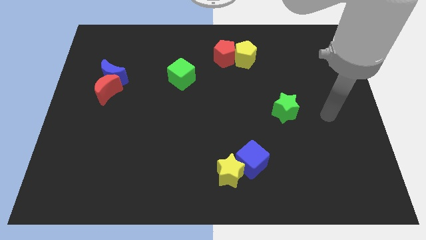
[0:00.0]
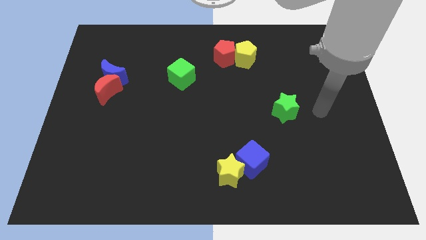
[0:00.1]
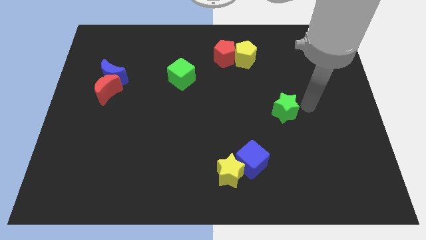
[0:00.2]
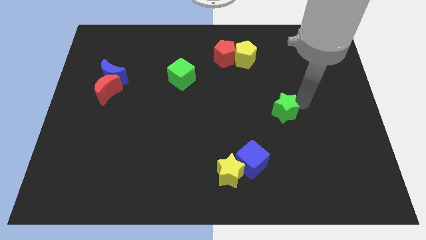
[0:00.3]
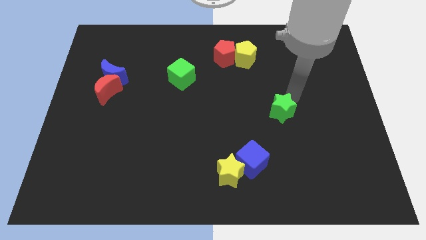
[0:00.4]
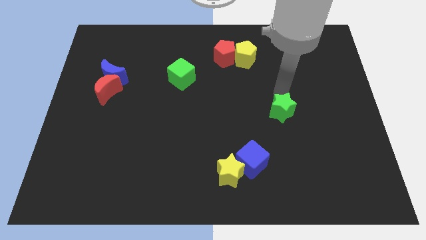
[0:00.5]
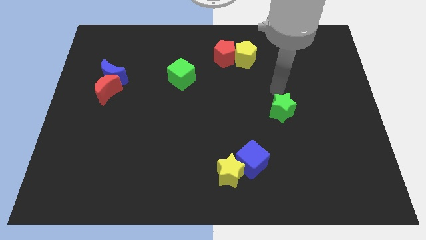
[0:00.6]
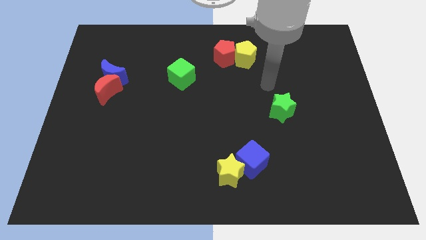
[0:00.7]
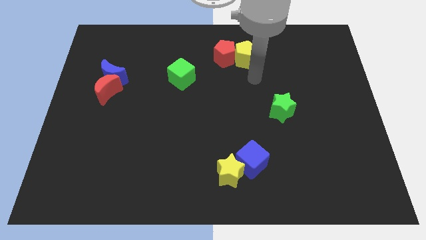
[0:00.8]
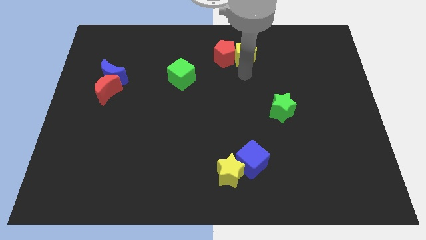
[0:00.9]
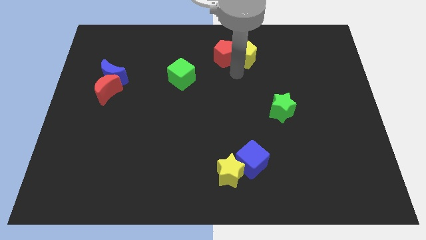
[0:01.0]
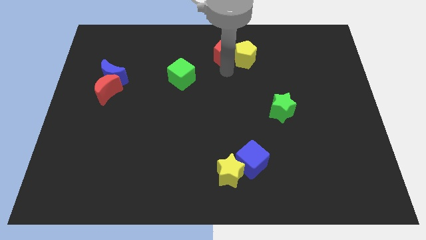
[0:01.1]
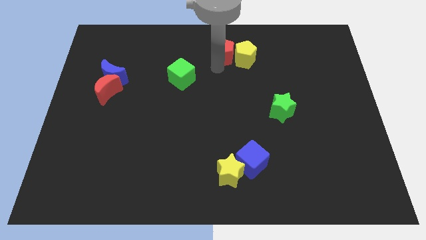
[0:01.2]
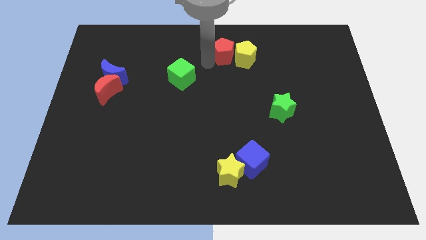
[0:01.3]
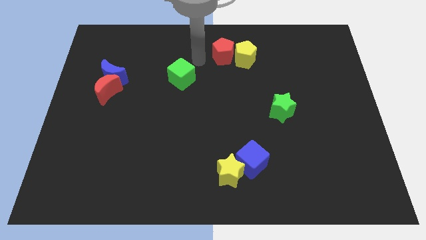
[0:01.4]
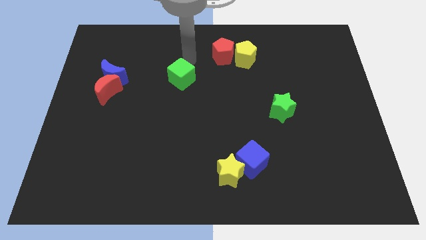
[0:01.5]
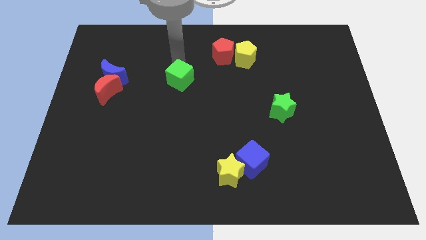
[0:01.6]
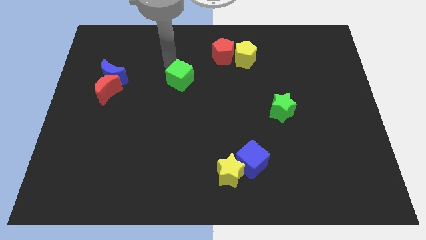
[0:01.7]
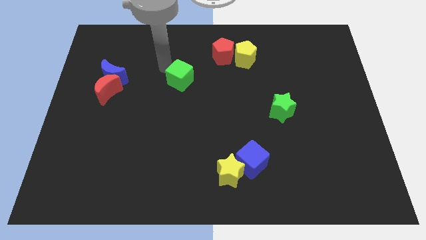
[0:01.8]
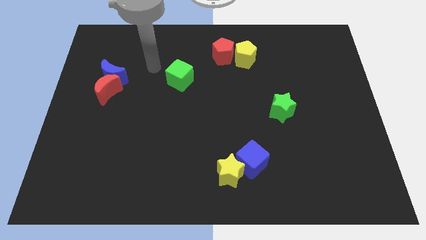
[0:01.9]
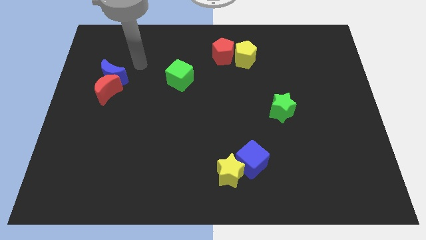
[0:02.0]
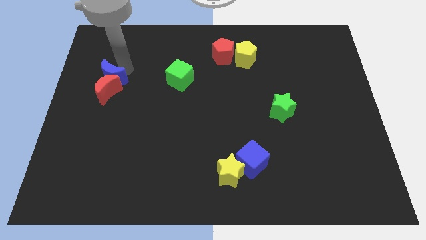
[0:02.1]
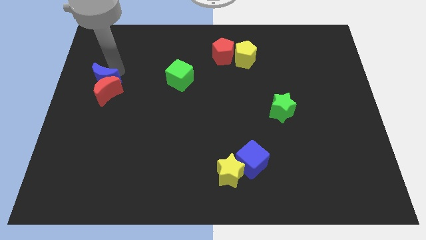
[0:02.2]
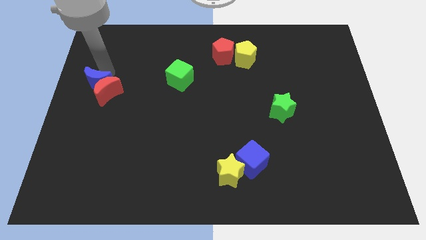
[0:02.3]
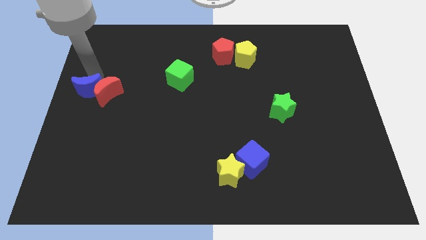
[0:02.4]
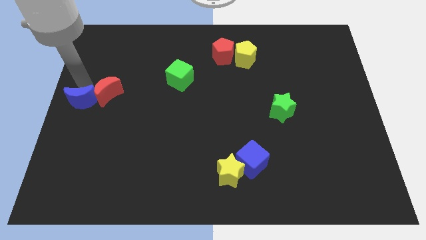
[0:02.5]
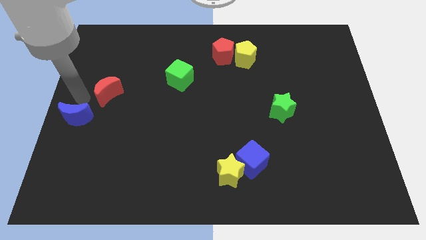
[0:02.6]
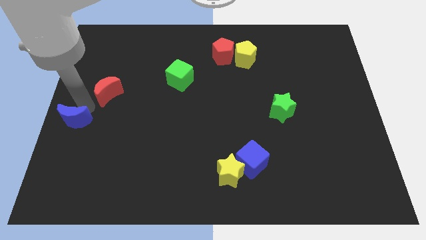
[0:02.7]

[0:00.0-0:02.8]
pull the red moon apart from the blue moon

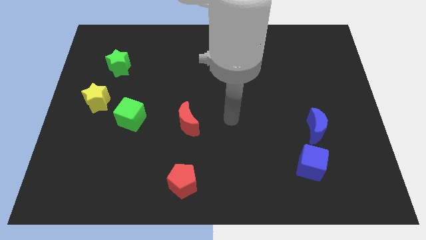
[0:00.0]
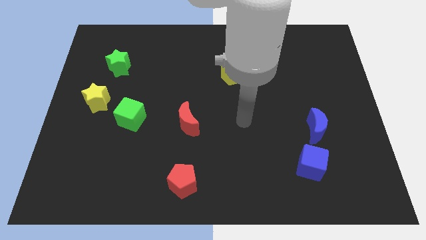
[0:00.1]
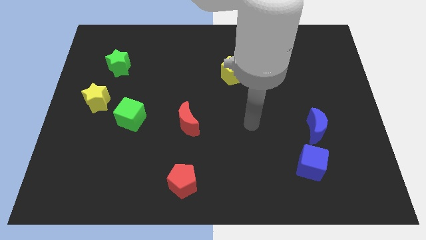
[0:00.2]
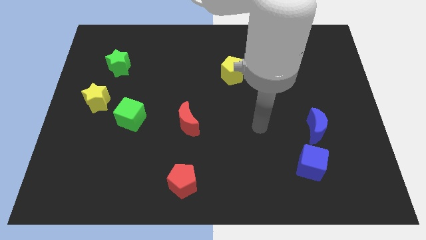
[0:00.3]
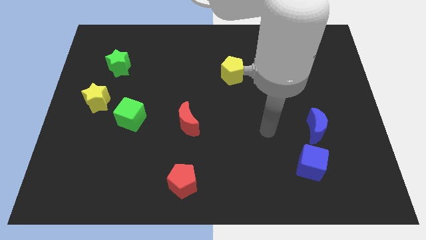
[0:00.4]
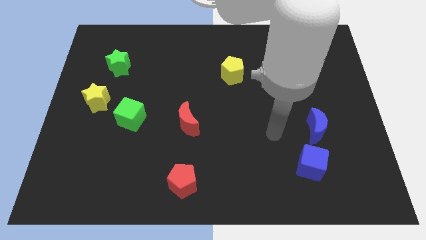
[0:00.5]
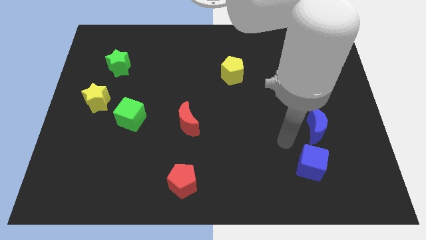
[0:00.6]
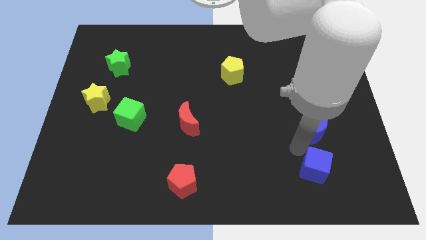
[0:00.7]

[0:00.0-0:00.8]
pull the blue moon apart from the blue cube

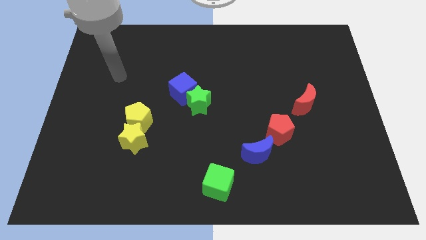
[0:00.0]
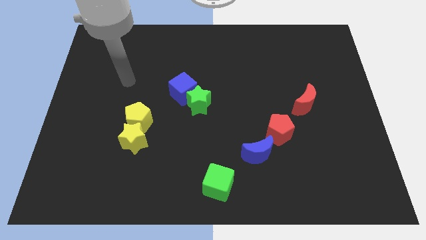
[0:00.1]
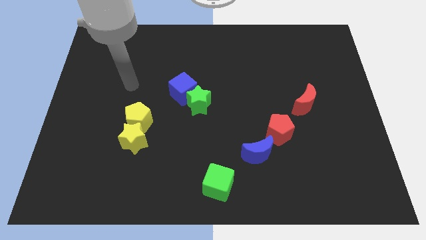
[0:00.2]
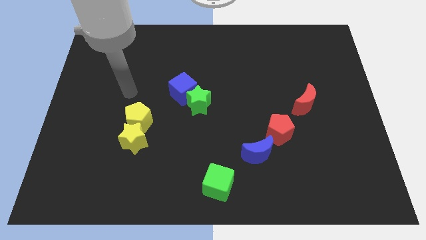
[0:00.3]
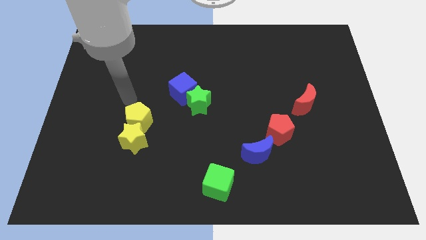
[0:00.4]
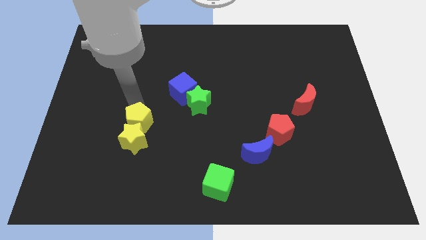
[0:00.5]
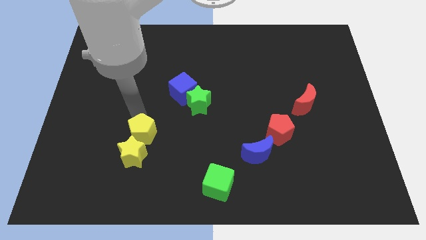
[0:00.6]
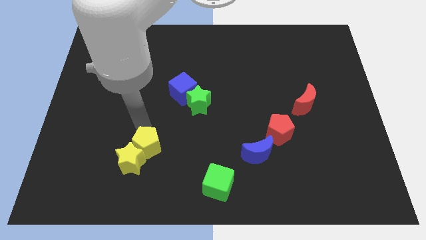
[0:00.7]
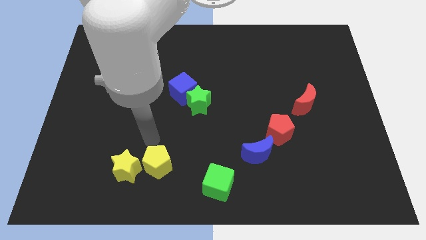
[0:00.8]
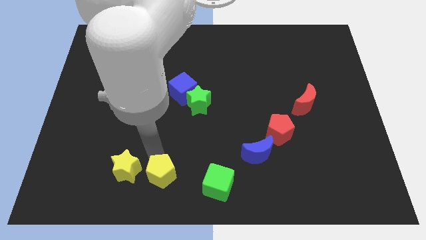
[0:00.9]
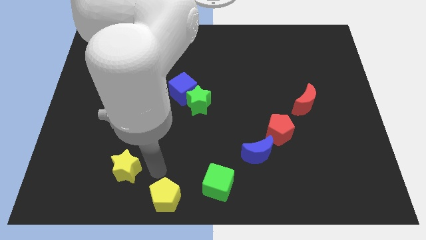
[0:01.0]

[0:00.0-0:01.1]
separate the yellow star from the yellow pentagon

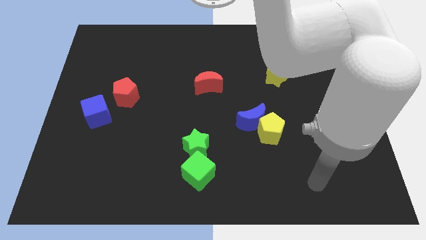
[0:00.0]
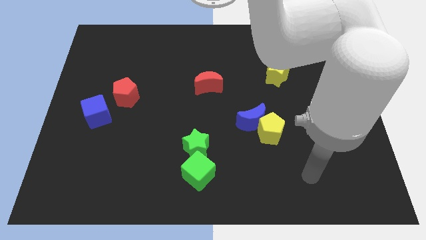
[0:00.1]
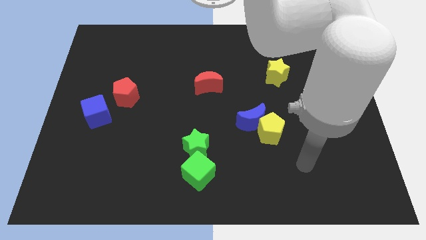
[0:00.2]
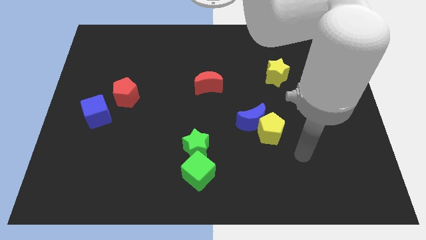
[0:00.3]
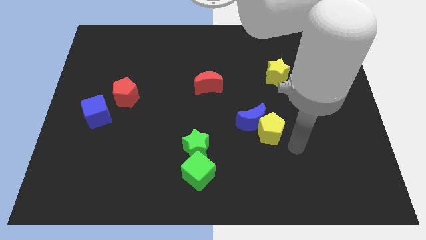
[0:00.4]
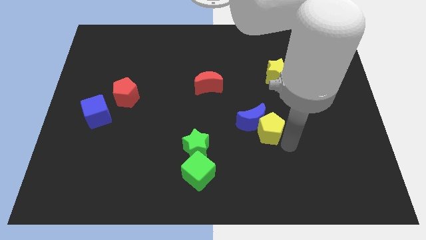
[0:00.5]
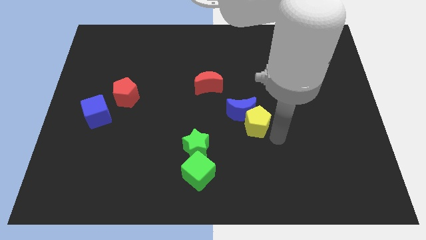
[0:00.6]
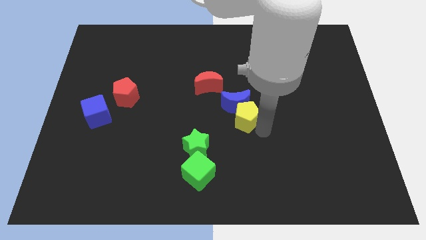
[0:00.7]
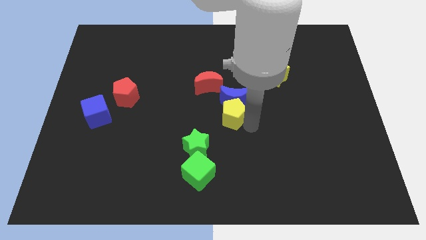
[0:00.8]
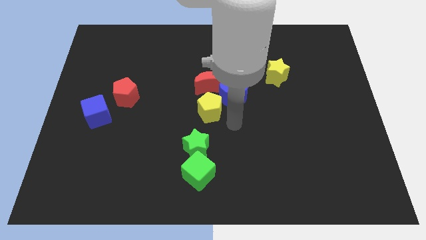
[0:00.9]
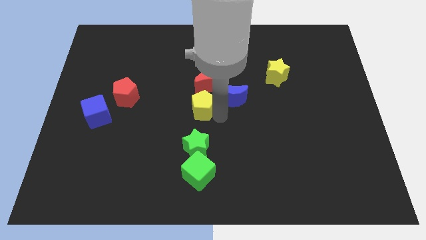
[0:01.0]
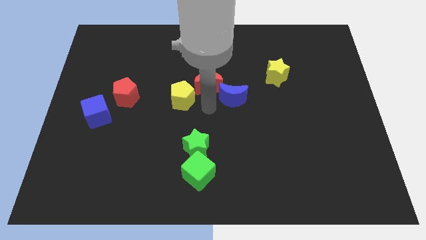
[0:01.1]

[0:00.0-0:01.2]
move the blue moon away from the yellow pentagon

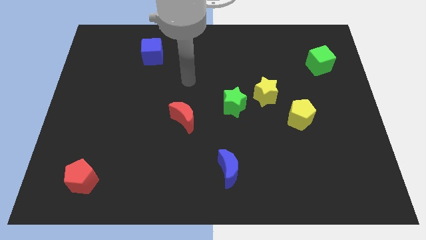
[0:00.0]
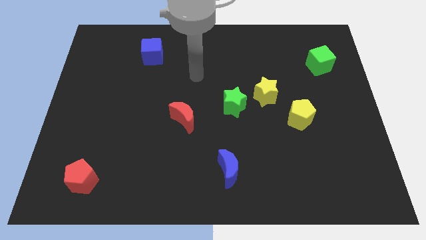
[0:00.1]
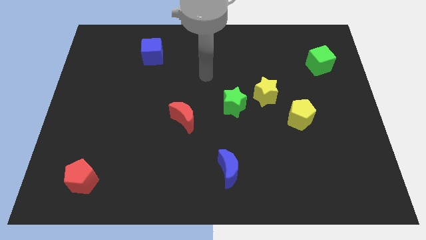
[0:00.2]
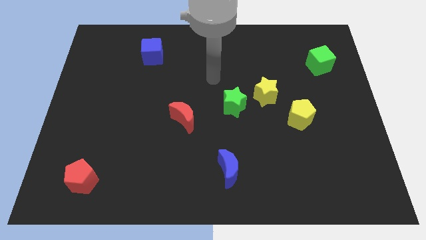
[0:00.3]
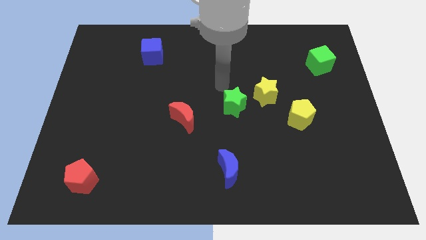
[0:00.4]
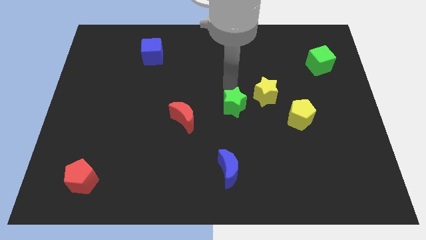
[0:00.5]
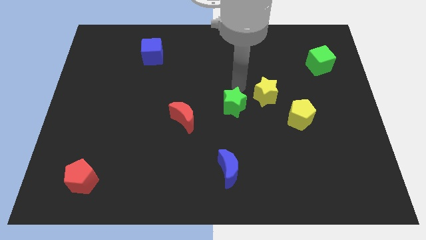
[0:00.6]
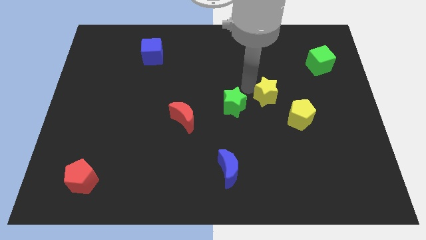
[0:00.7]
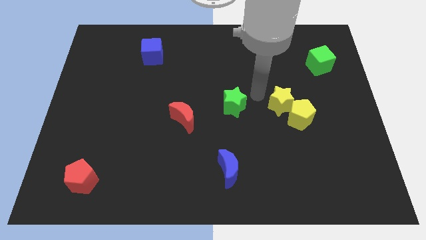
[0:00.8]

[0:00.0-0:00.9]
move the green star away from the yellow star

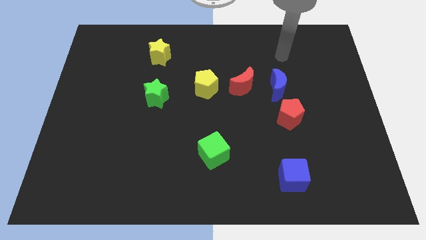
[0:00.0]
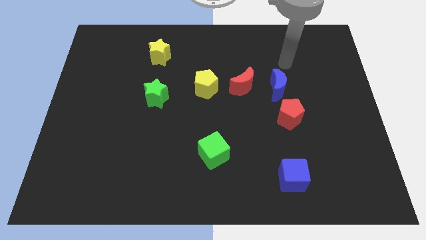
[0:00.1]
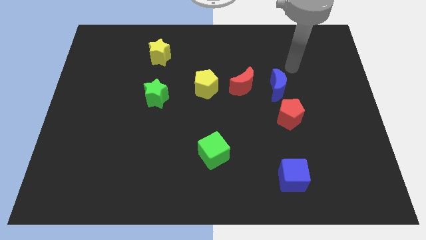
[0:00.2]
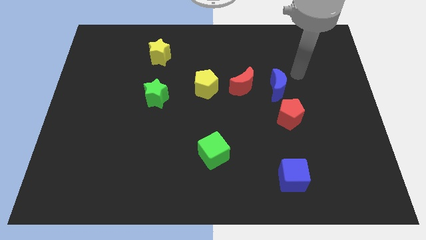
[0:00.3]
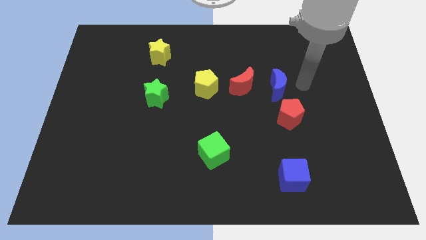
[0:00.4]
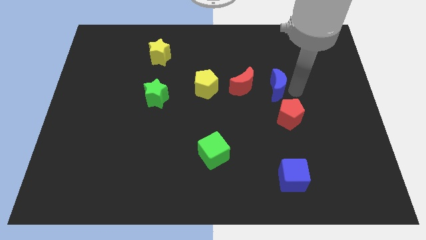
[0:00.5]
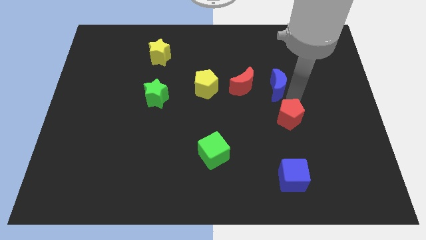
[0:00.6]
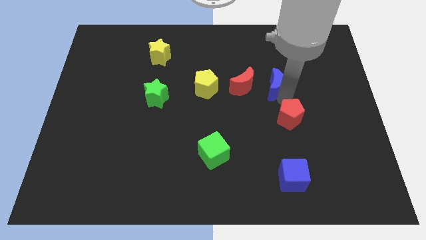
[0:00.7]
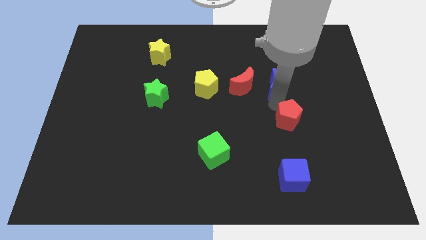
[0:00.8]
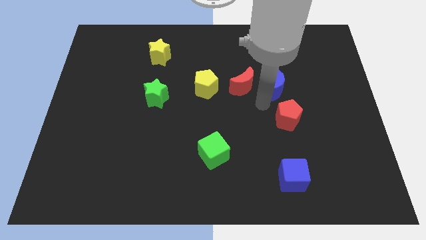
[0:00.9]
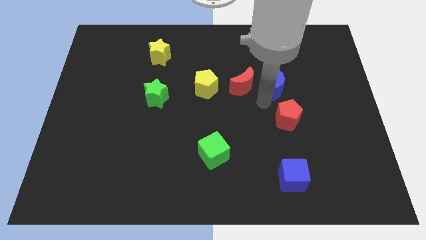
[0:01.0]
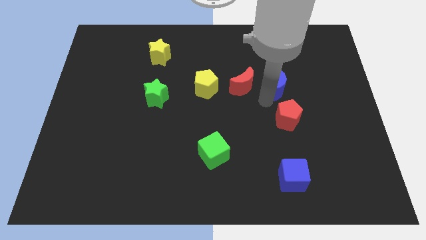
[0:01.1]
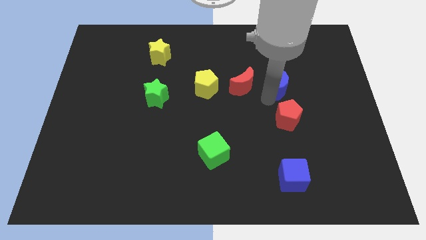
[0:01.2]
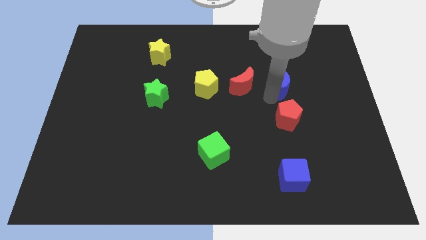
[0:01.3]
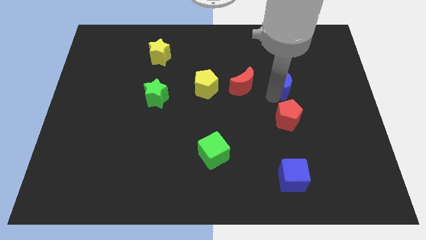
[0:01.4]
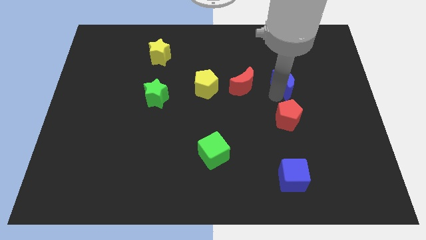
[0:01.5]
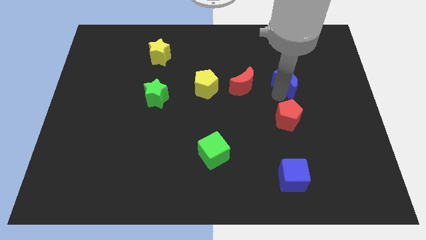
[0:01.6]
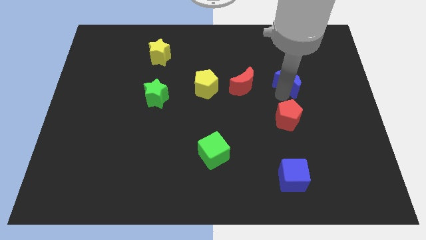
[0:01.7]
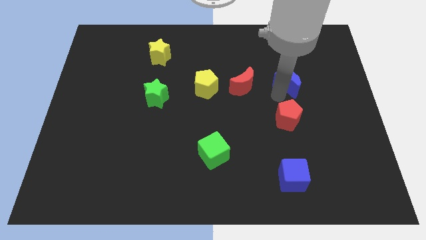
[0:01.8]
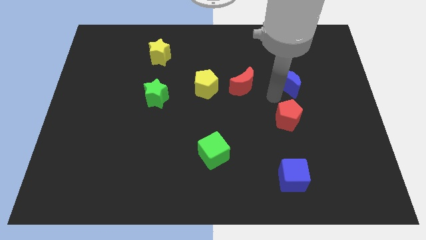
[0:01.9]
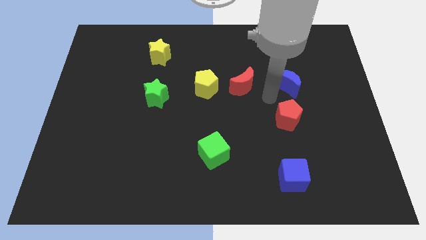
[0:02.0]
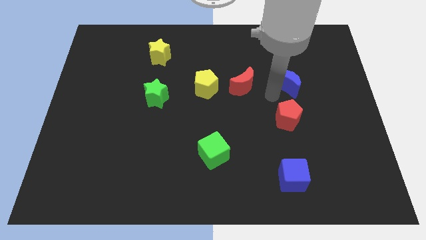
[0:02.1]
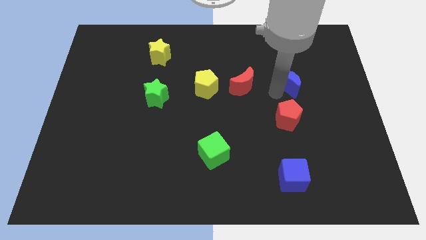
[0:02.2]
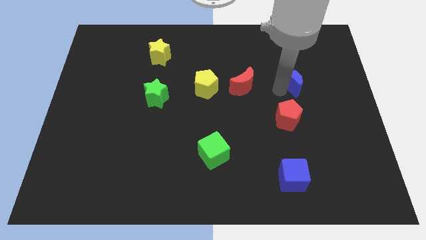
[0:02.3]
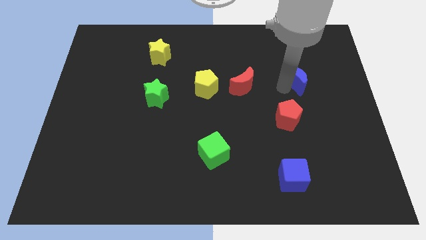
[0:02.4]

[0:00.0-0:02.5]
pull the blue moon apart from the red moon and red pentagon
